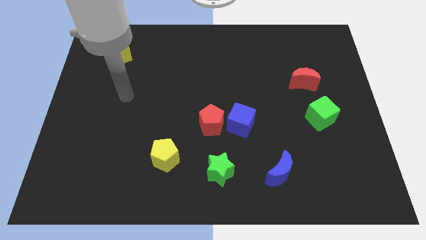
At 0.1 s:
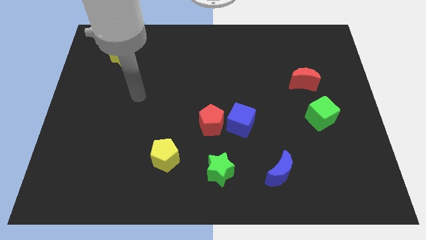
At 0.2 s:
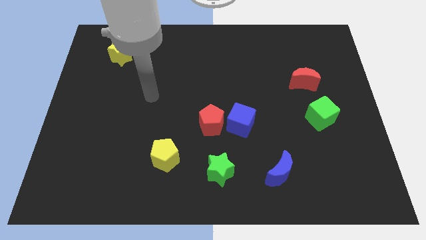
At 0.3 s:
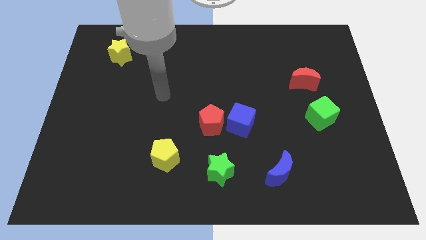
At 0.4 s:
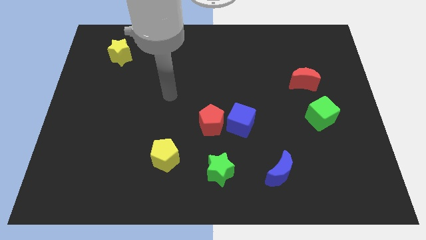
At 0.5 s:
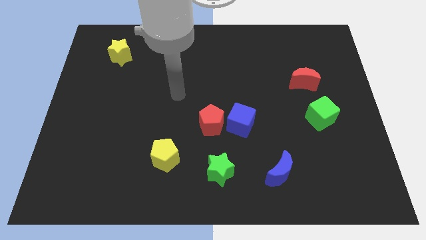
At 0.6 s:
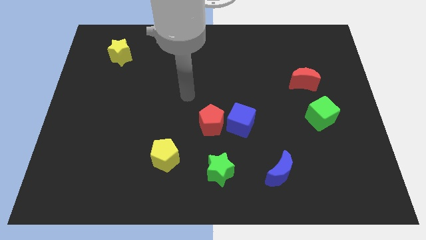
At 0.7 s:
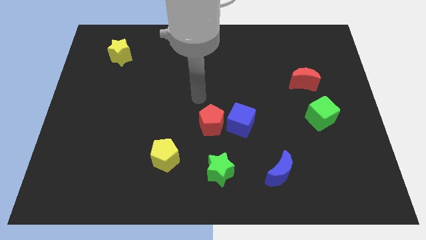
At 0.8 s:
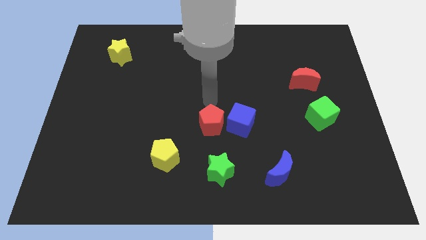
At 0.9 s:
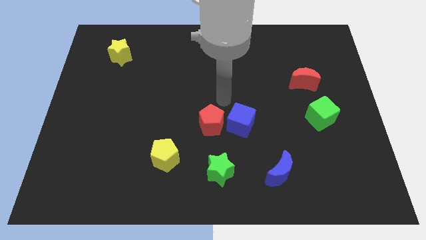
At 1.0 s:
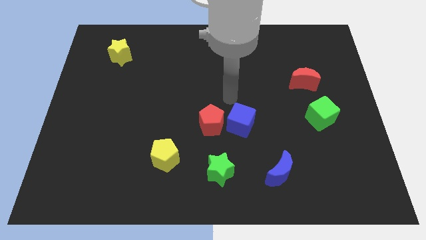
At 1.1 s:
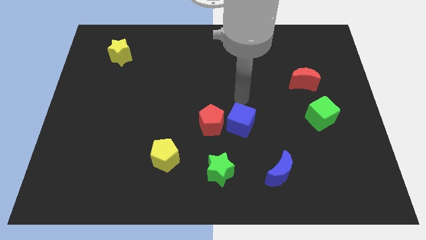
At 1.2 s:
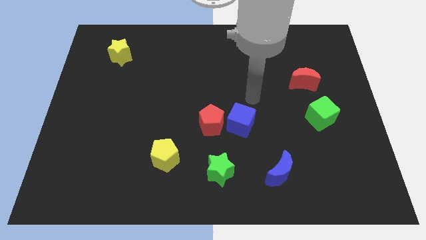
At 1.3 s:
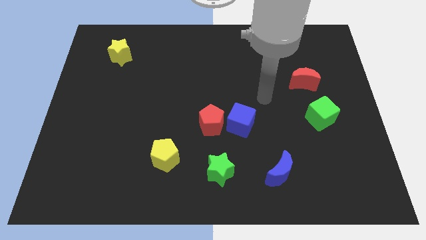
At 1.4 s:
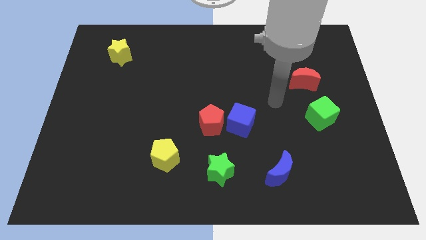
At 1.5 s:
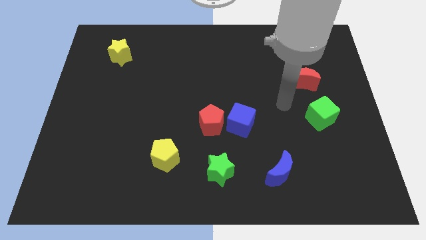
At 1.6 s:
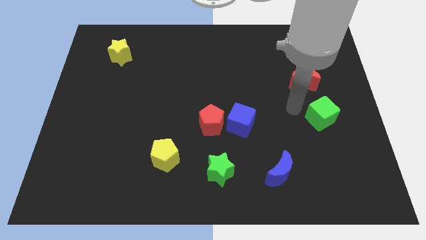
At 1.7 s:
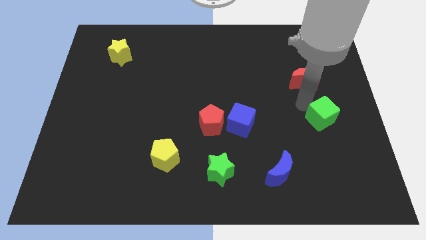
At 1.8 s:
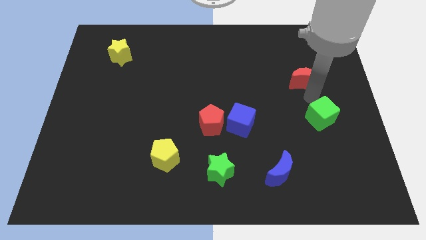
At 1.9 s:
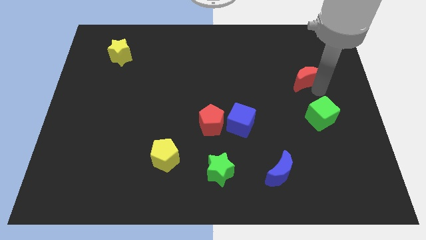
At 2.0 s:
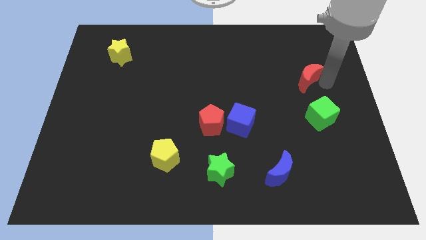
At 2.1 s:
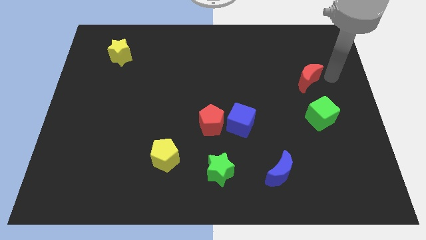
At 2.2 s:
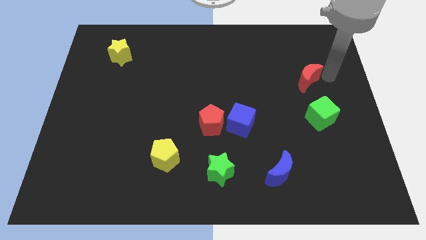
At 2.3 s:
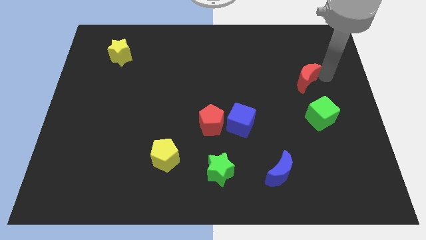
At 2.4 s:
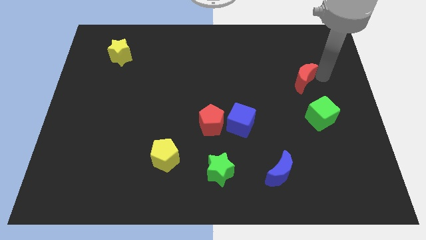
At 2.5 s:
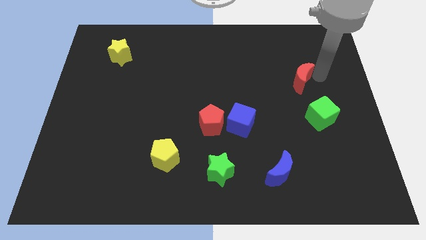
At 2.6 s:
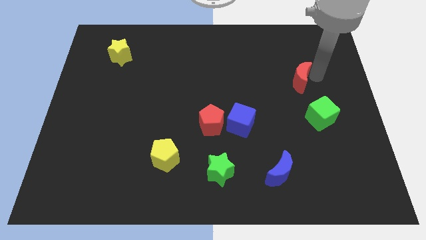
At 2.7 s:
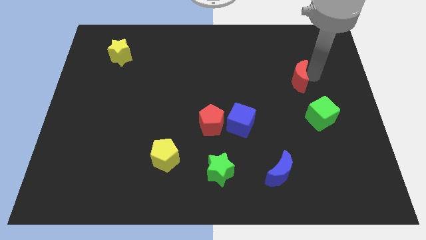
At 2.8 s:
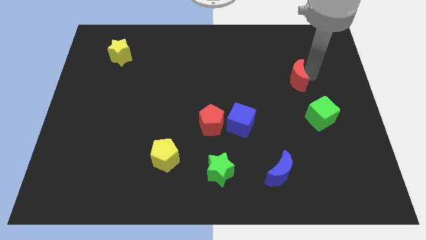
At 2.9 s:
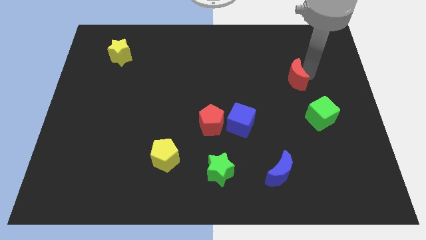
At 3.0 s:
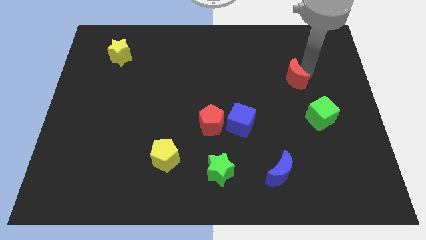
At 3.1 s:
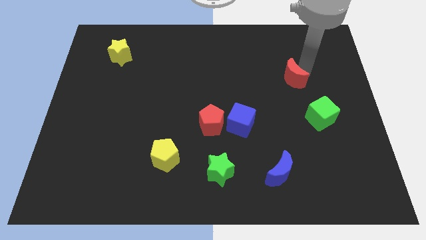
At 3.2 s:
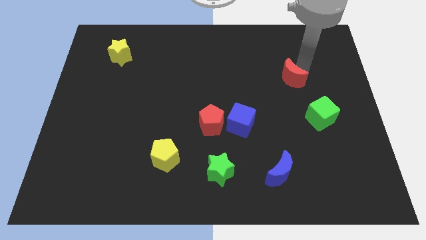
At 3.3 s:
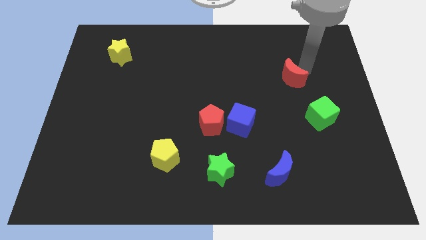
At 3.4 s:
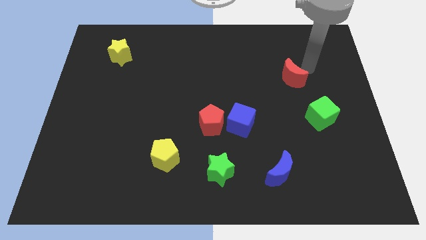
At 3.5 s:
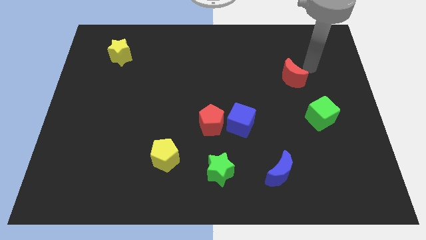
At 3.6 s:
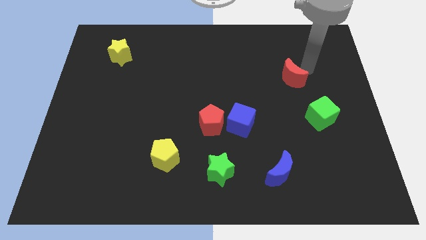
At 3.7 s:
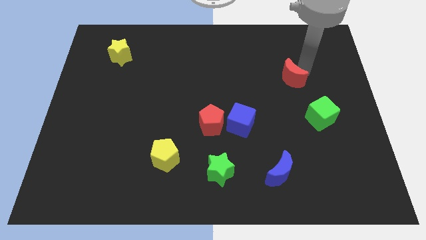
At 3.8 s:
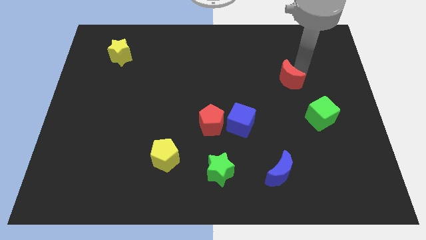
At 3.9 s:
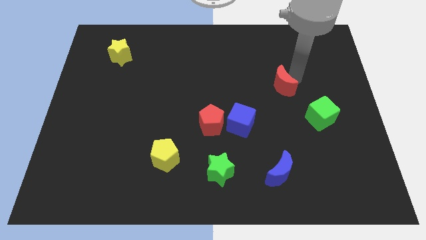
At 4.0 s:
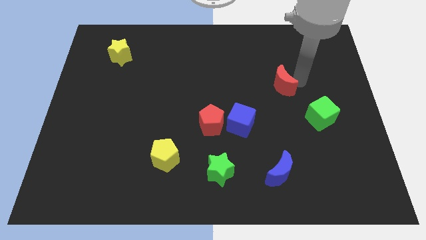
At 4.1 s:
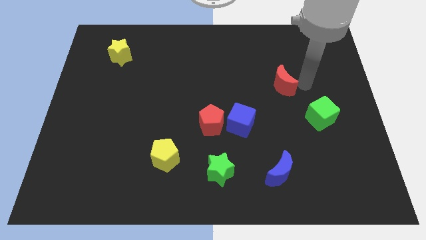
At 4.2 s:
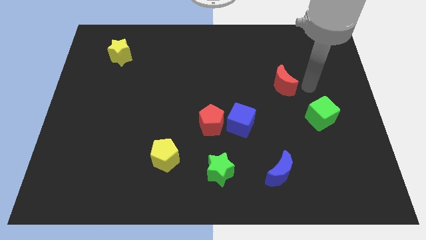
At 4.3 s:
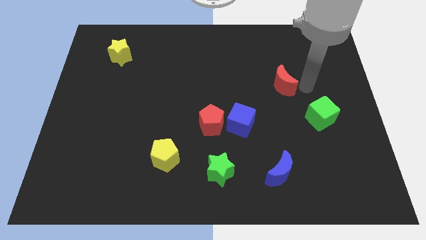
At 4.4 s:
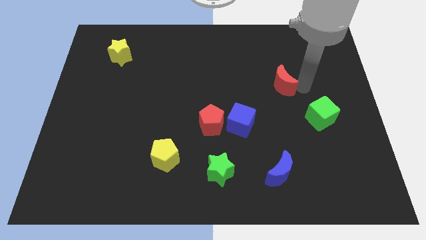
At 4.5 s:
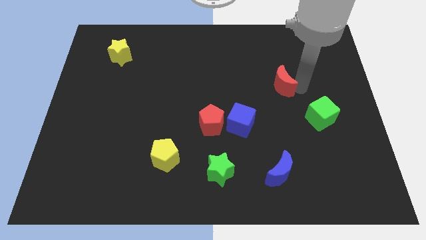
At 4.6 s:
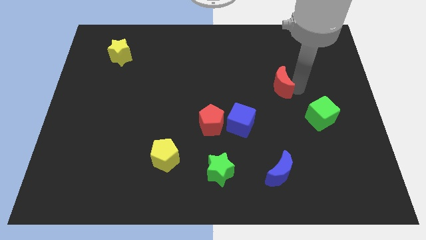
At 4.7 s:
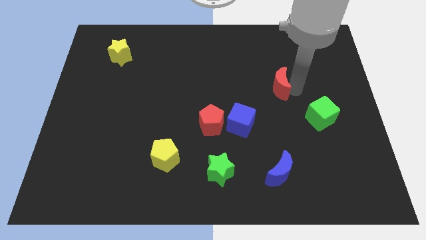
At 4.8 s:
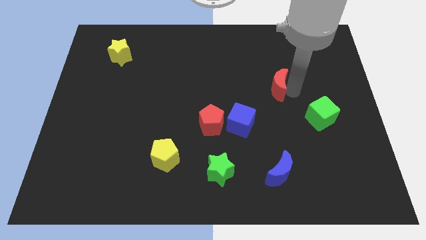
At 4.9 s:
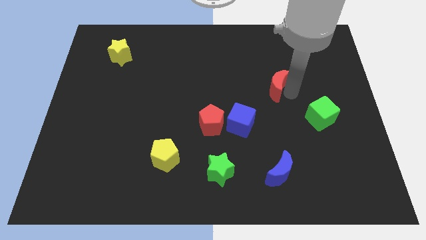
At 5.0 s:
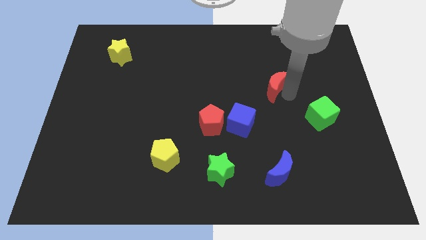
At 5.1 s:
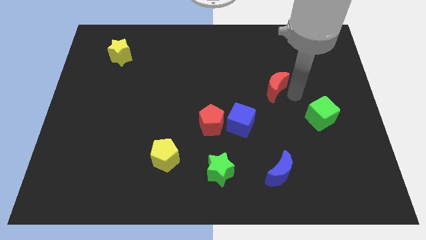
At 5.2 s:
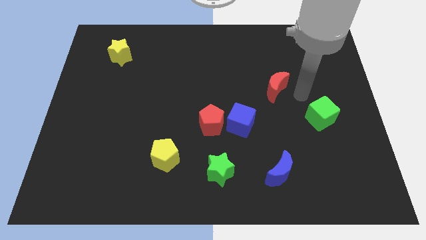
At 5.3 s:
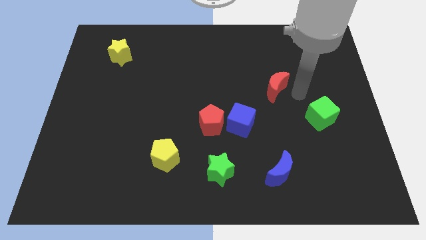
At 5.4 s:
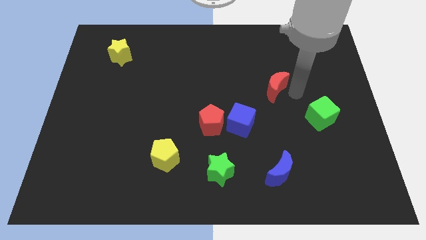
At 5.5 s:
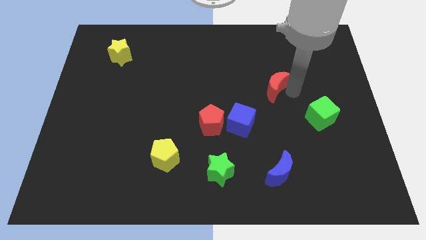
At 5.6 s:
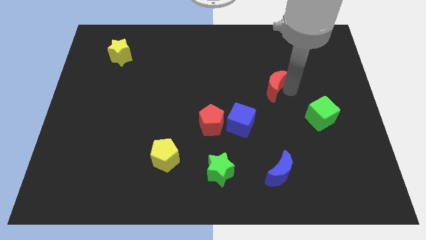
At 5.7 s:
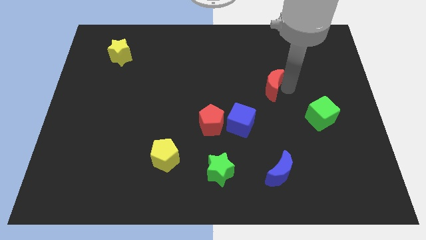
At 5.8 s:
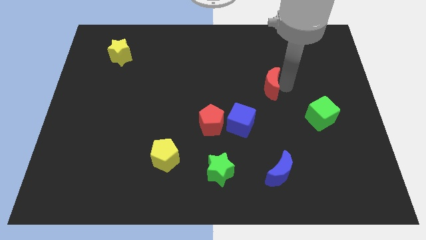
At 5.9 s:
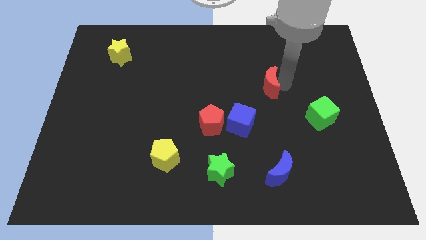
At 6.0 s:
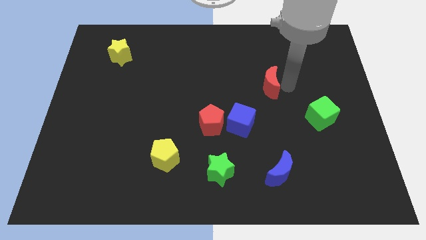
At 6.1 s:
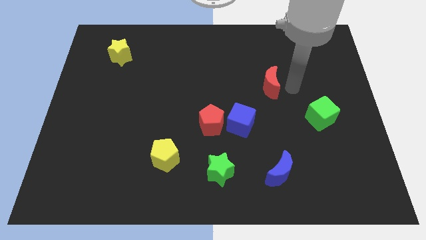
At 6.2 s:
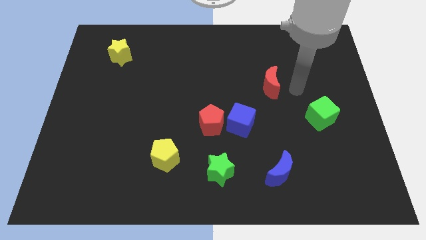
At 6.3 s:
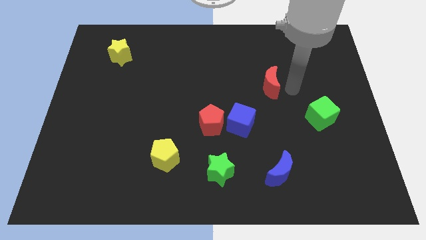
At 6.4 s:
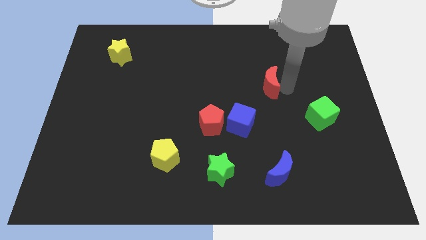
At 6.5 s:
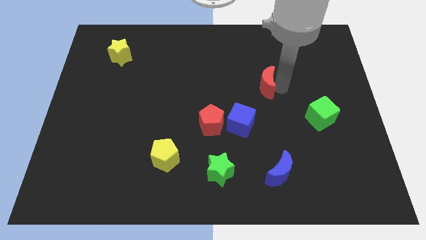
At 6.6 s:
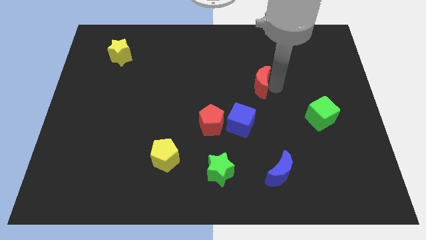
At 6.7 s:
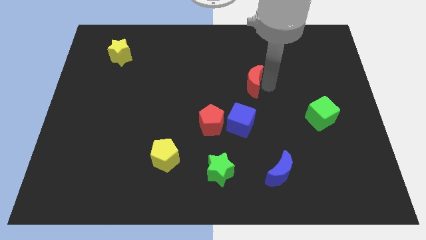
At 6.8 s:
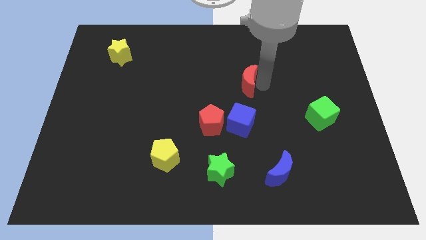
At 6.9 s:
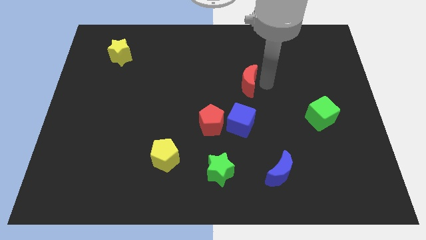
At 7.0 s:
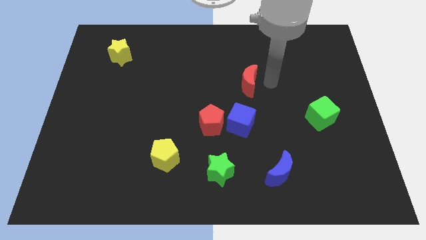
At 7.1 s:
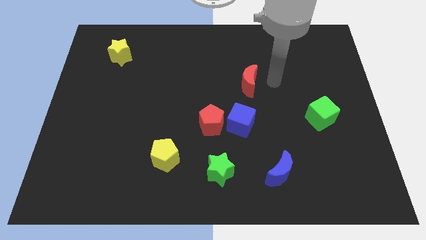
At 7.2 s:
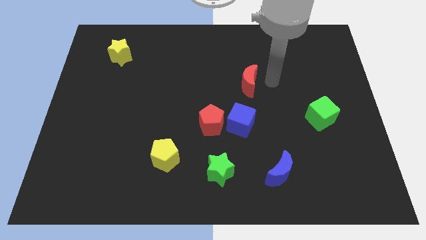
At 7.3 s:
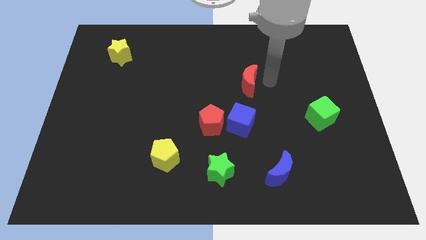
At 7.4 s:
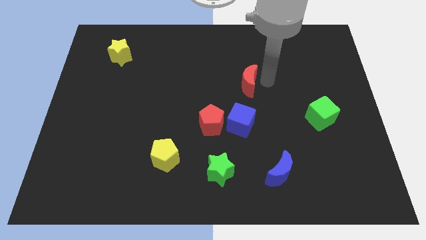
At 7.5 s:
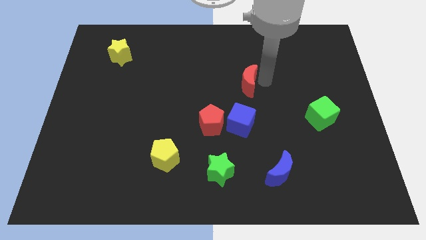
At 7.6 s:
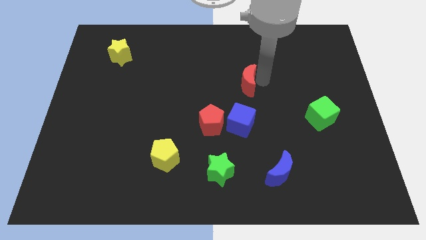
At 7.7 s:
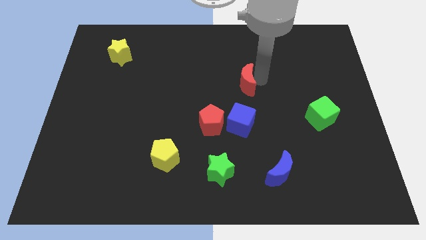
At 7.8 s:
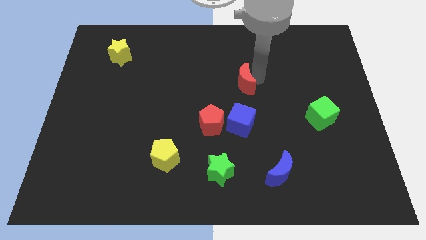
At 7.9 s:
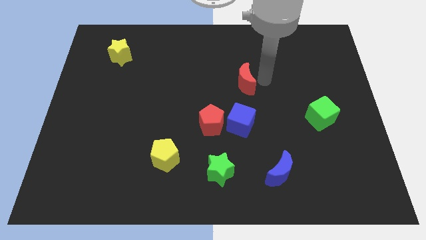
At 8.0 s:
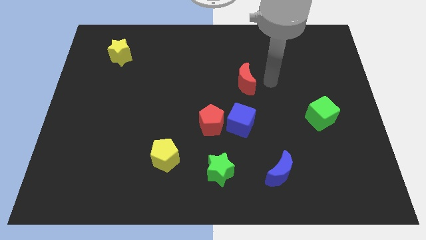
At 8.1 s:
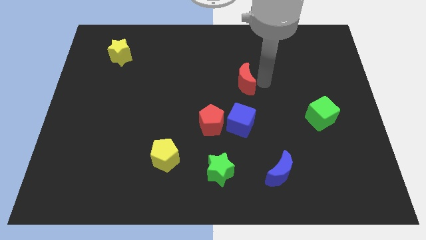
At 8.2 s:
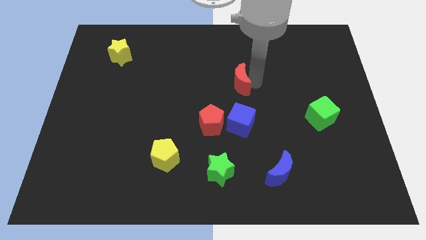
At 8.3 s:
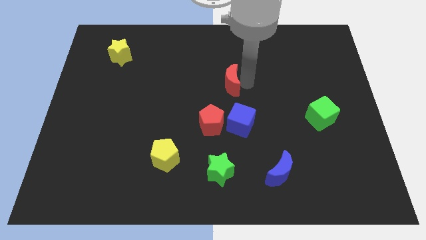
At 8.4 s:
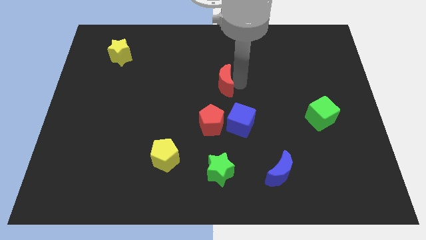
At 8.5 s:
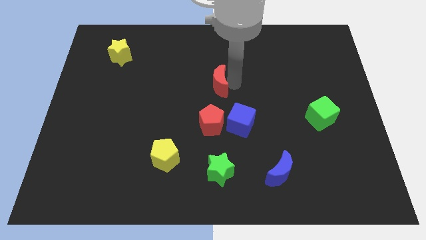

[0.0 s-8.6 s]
slide the red moon left
